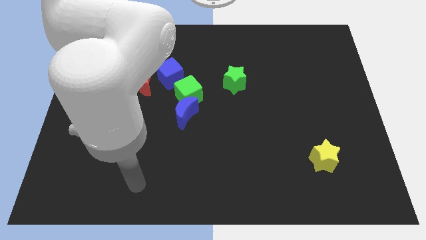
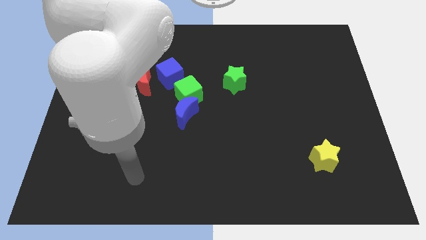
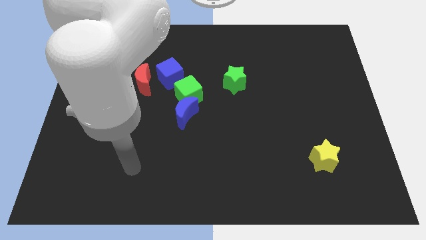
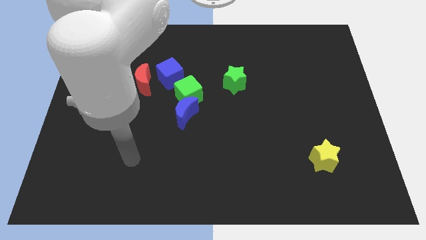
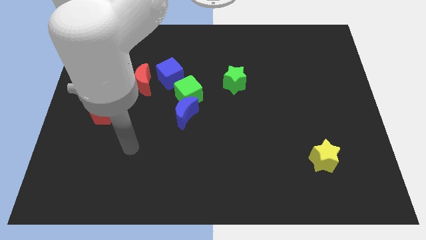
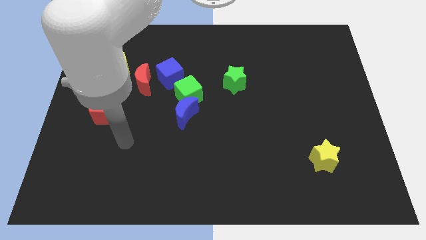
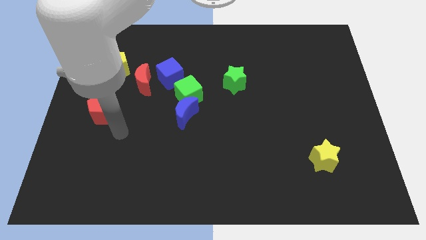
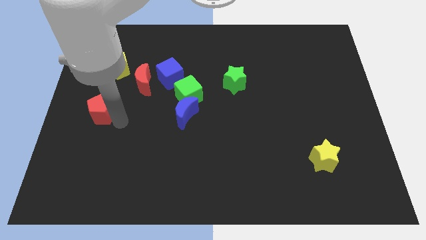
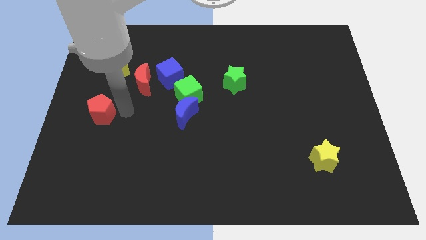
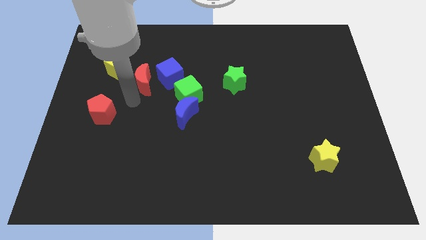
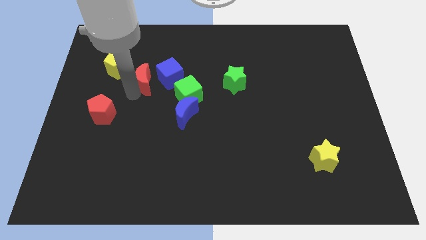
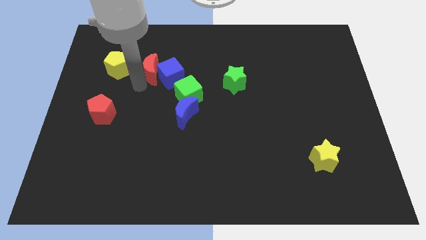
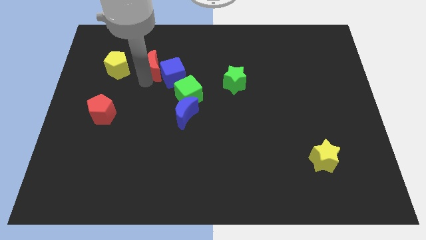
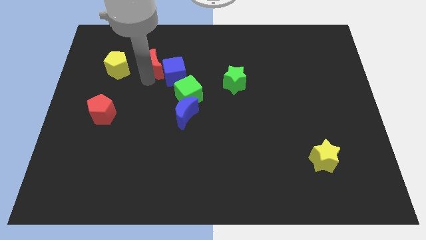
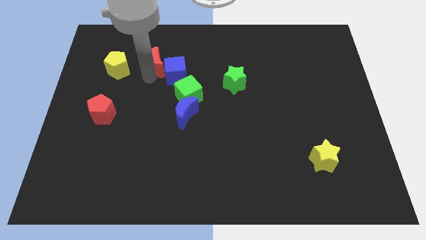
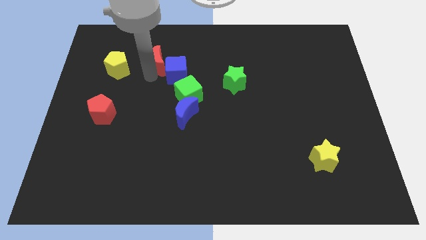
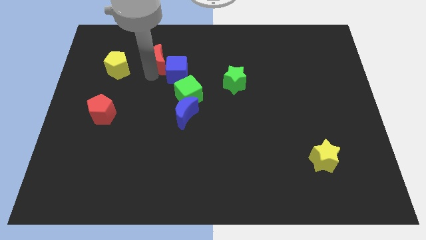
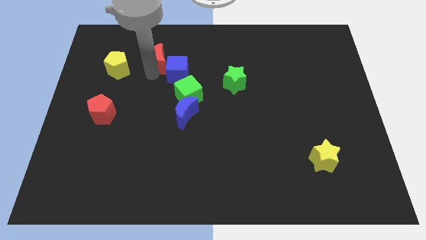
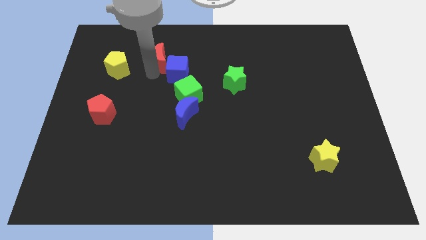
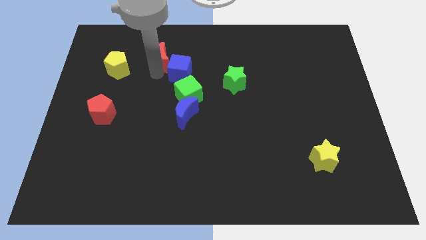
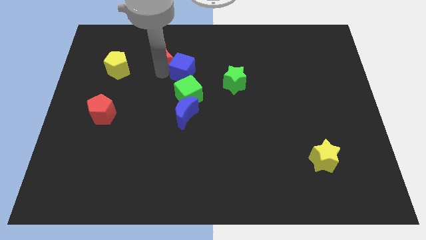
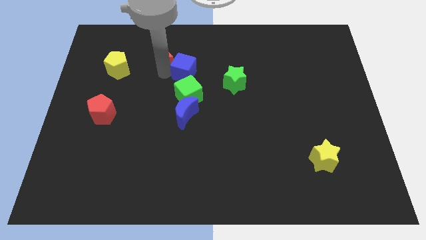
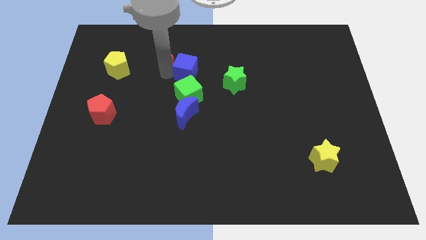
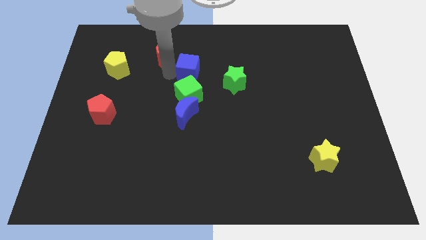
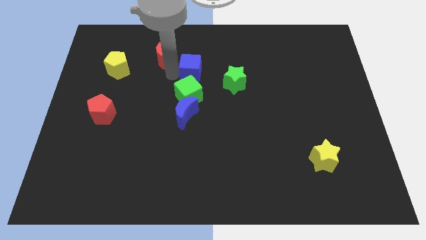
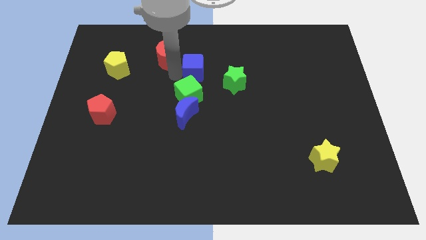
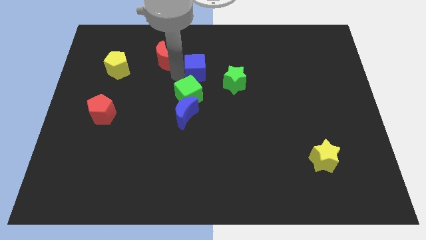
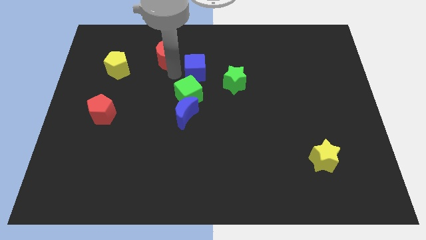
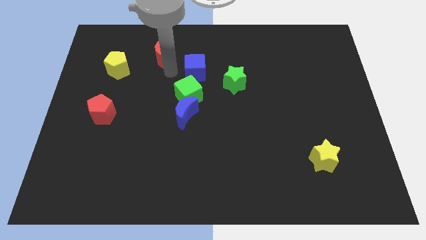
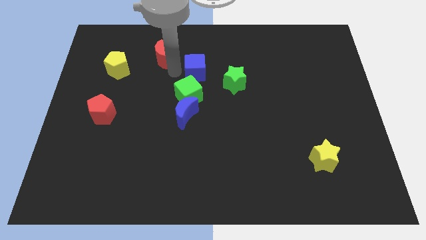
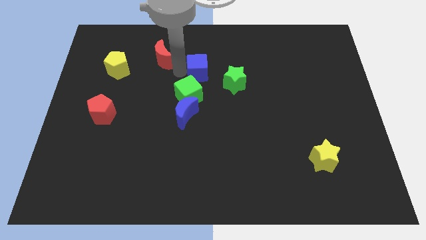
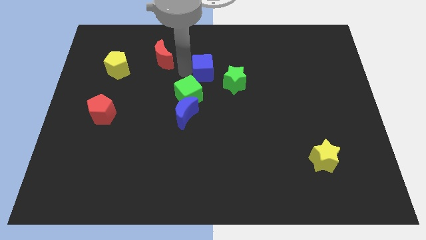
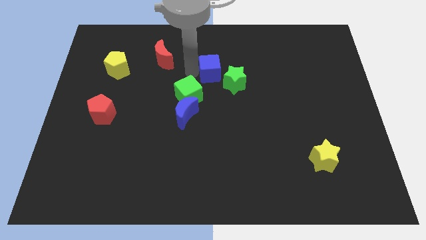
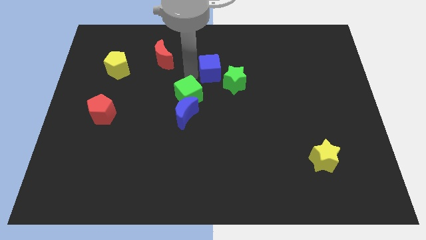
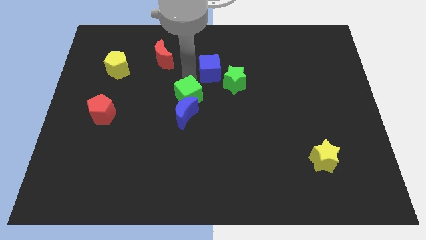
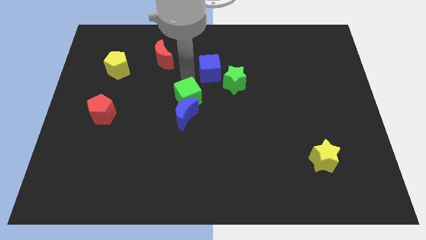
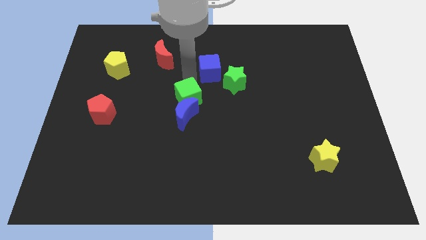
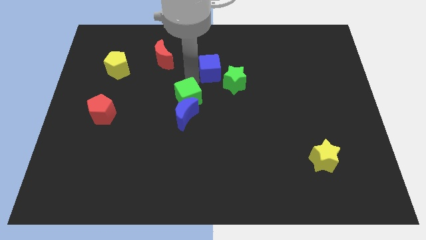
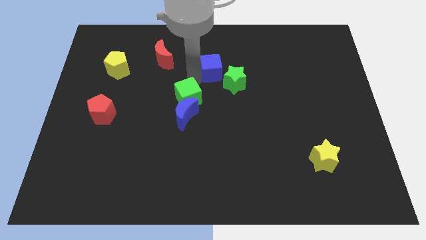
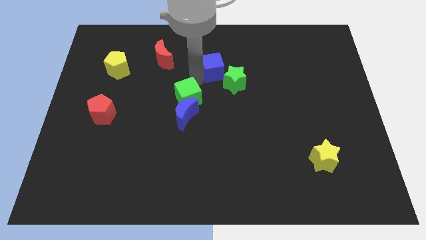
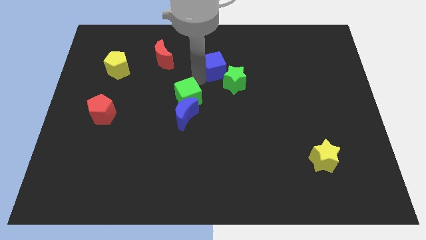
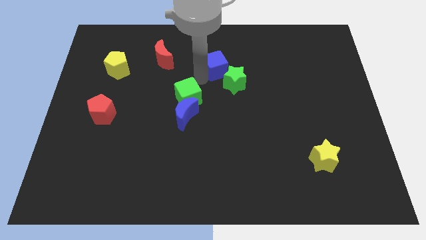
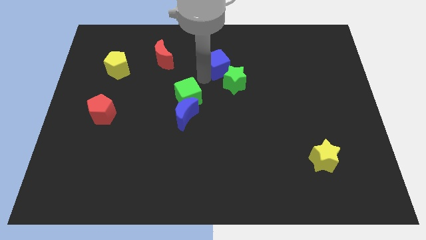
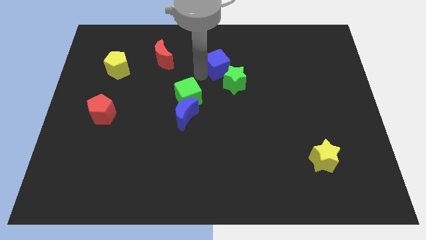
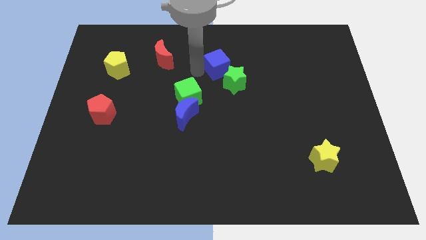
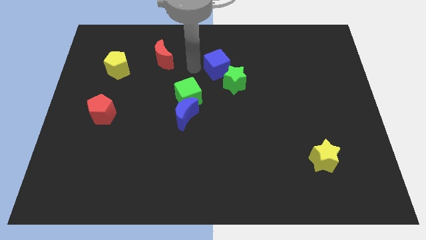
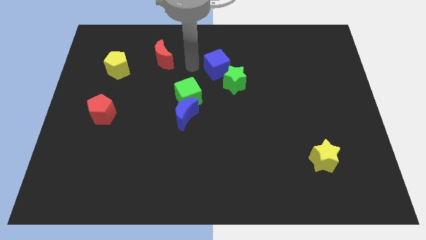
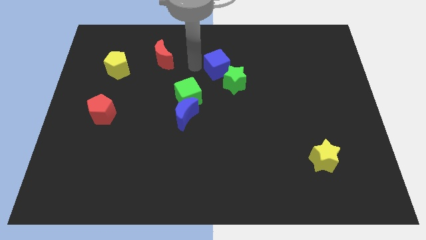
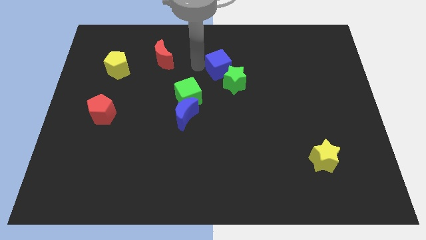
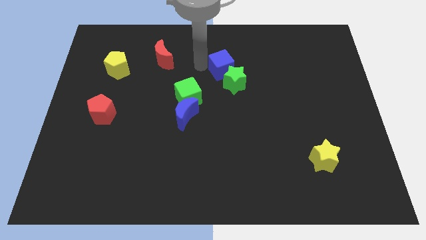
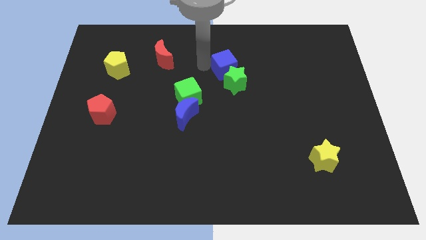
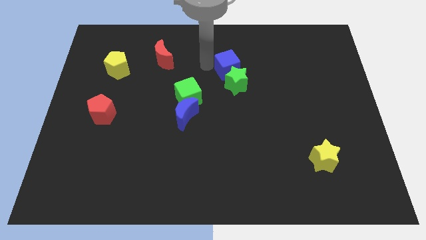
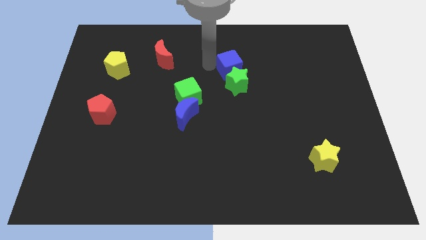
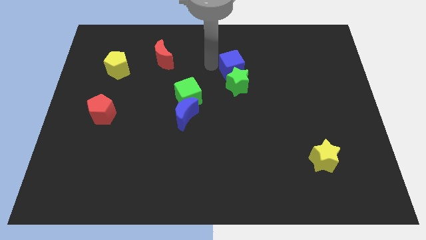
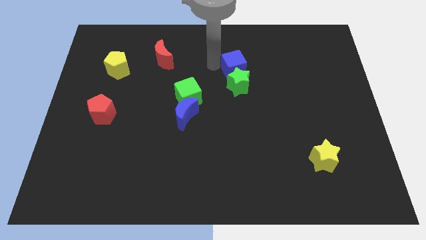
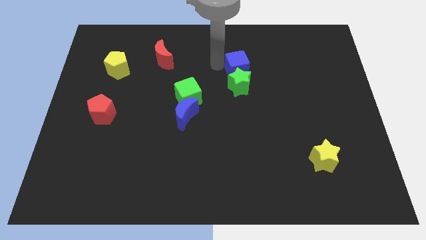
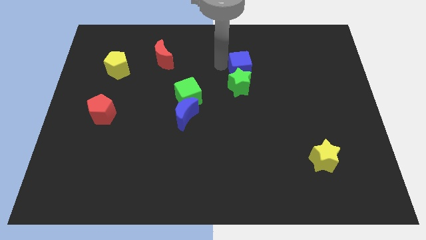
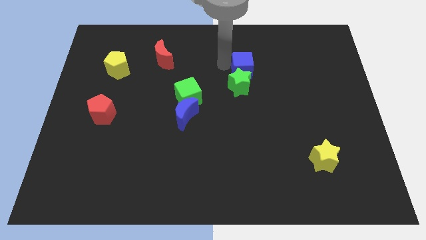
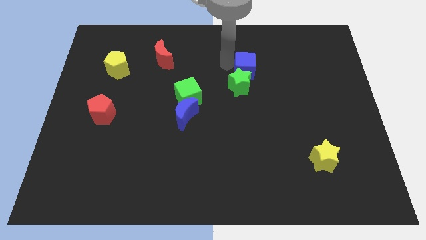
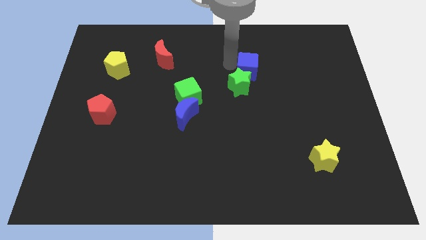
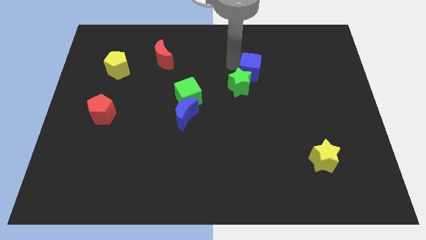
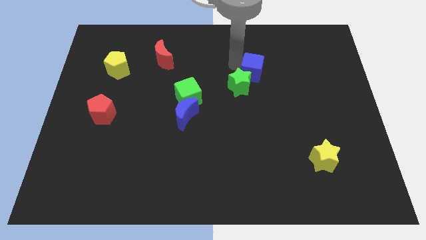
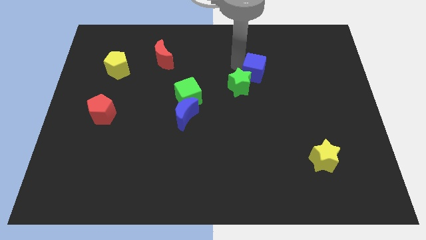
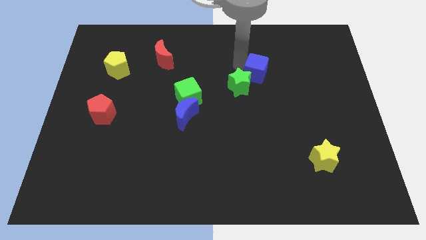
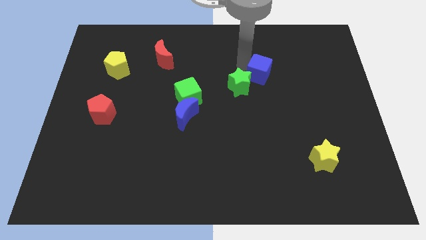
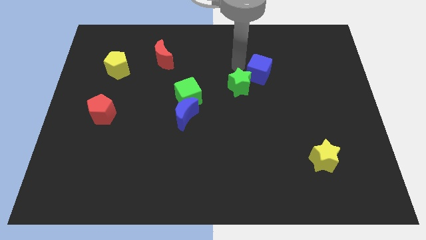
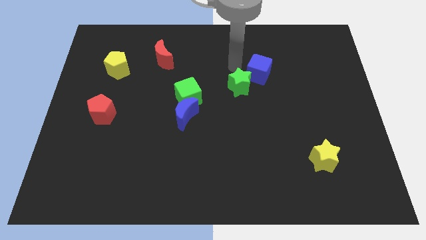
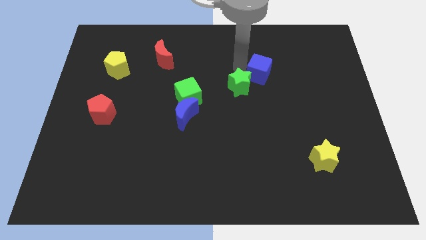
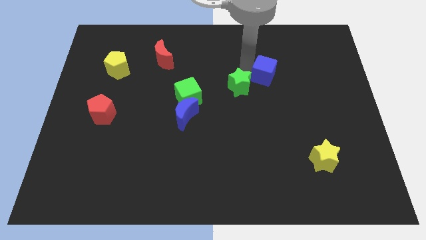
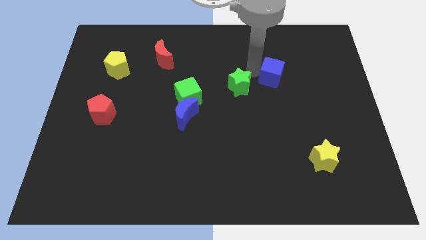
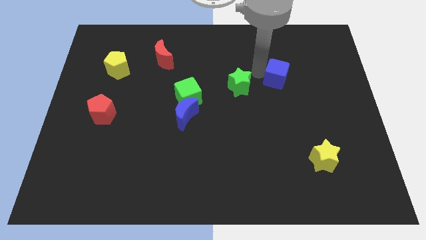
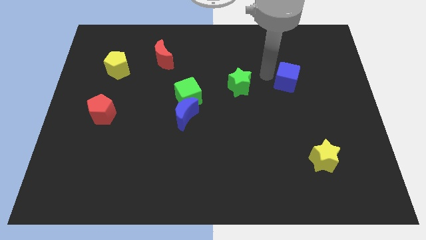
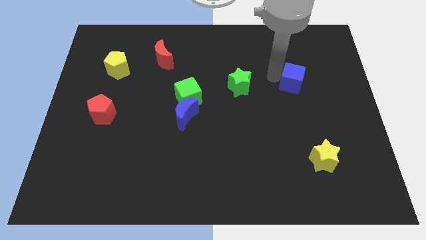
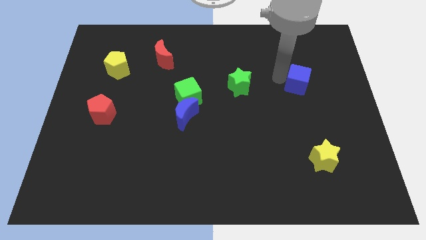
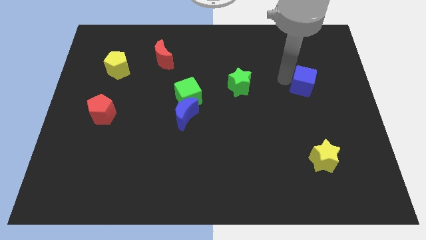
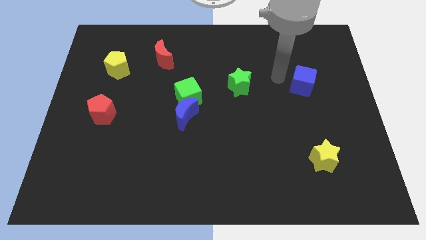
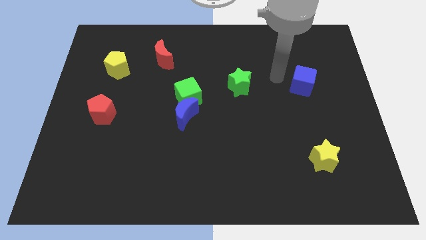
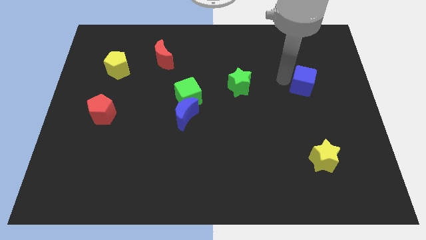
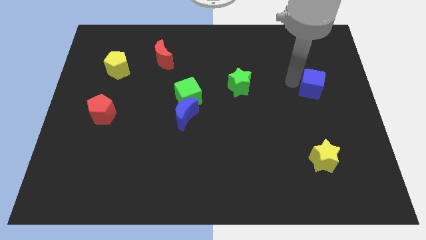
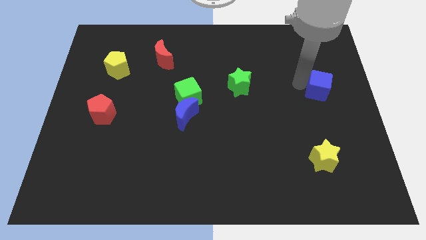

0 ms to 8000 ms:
put the blue cube to the center right
